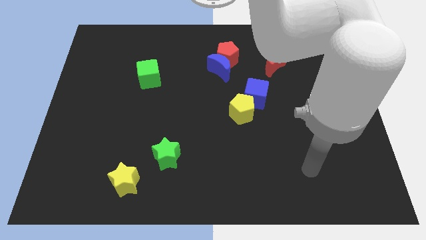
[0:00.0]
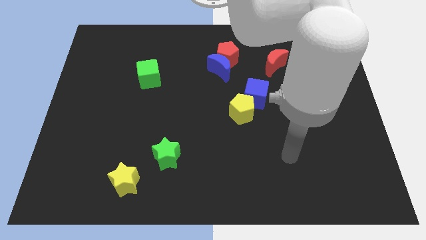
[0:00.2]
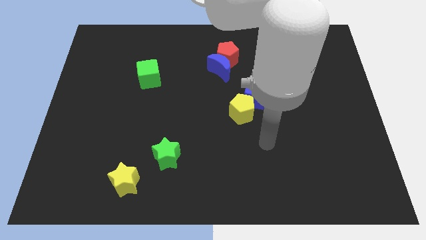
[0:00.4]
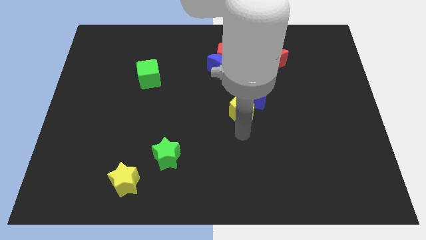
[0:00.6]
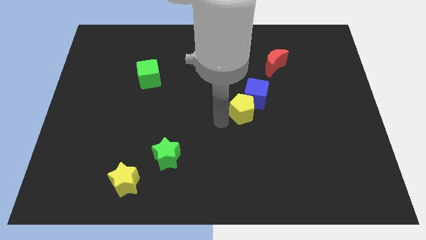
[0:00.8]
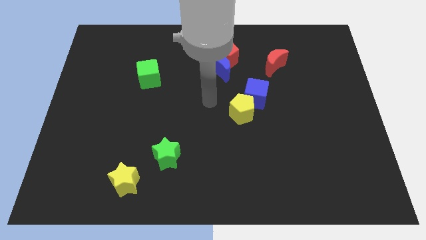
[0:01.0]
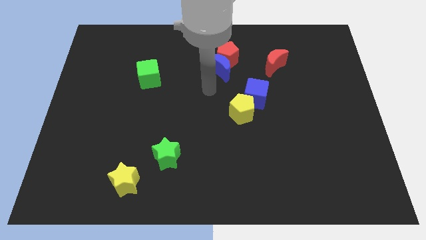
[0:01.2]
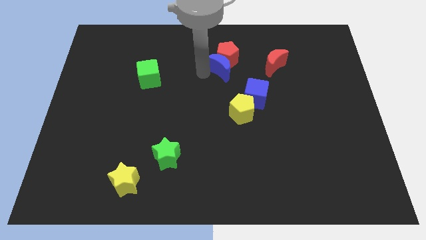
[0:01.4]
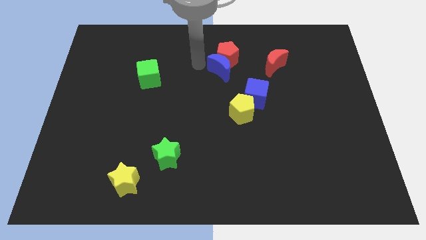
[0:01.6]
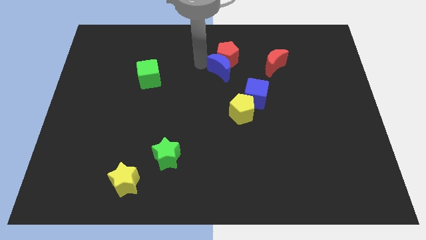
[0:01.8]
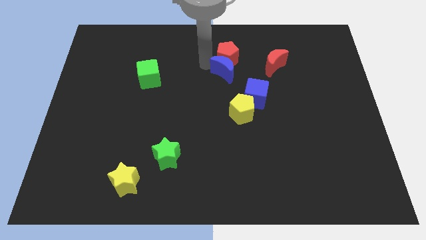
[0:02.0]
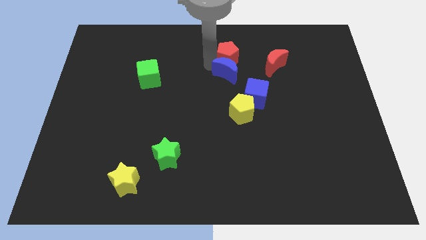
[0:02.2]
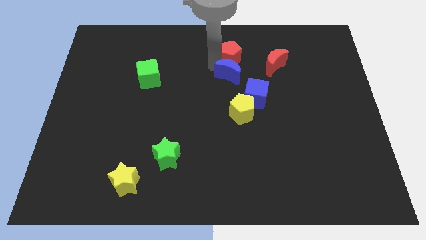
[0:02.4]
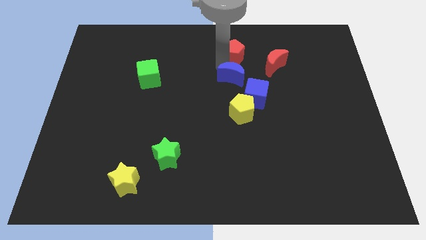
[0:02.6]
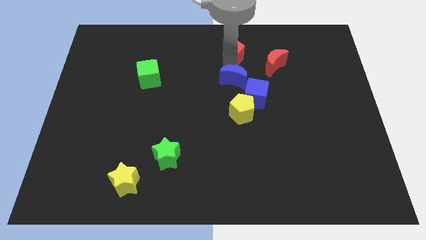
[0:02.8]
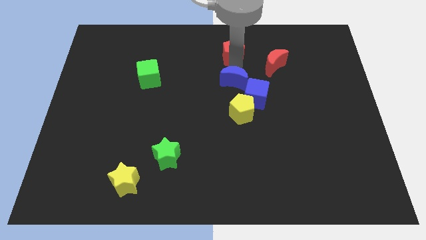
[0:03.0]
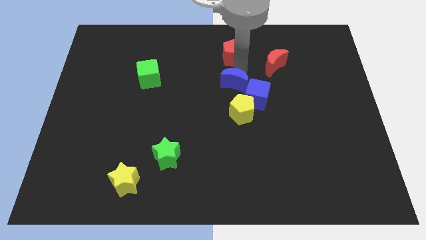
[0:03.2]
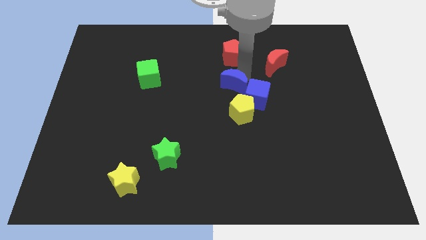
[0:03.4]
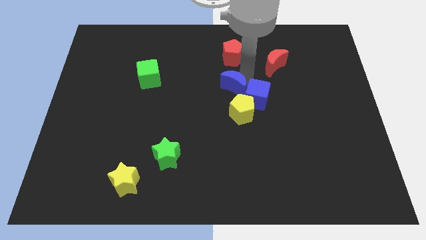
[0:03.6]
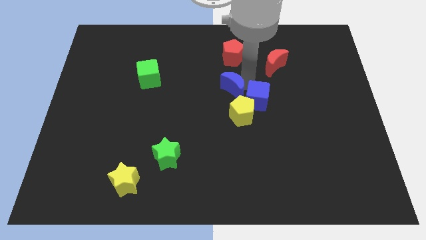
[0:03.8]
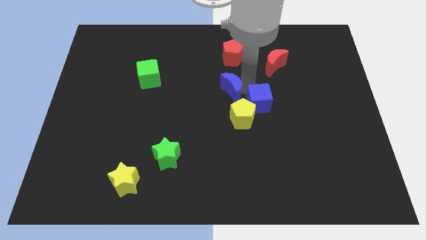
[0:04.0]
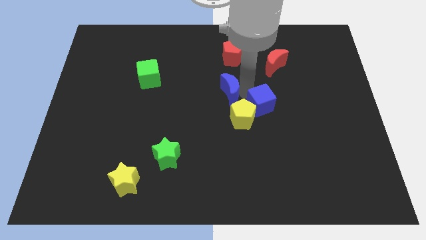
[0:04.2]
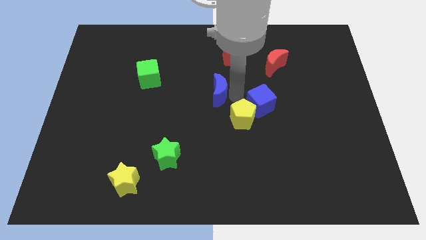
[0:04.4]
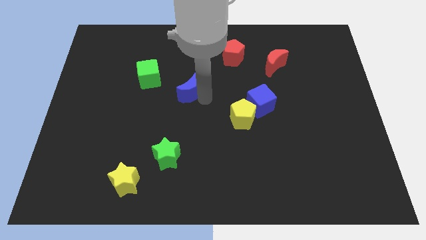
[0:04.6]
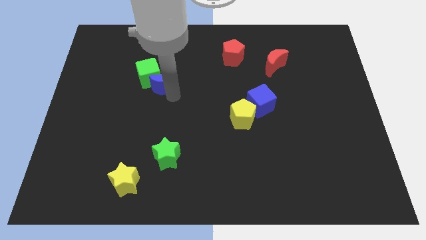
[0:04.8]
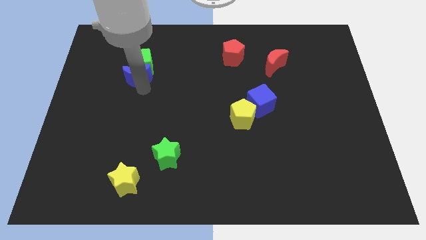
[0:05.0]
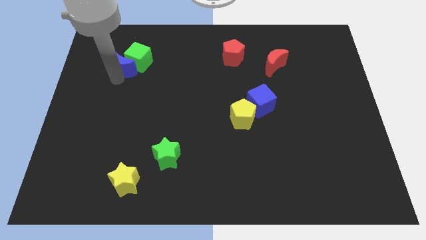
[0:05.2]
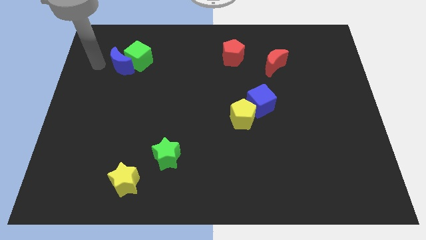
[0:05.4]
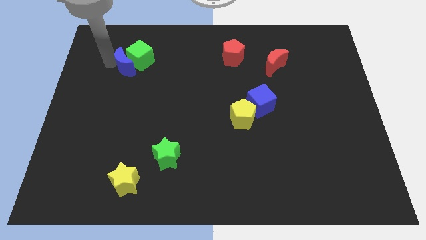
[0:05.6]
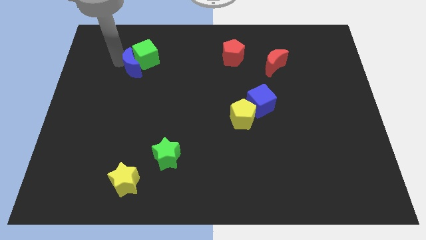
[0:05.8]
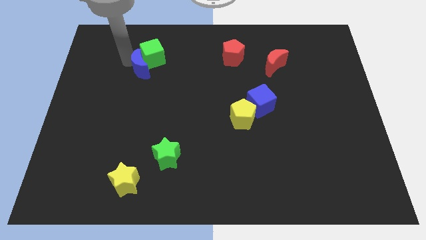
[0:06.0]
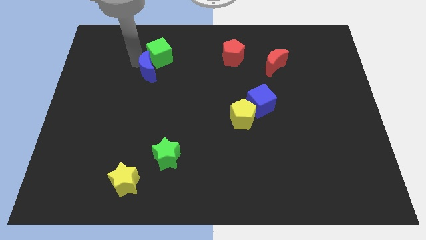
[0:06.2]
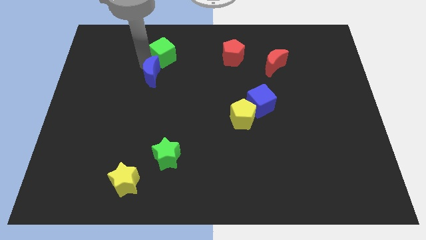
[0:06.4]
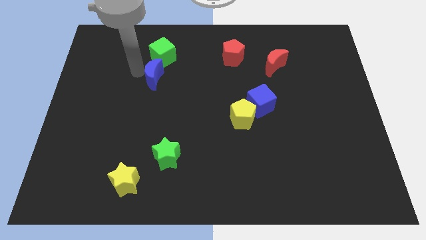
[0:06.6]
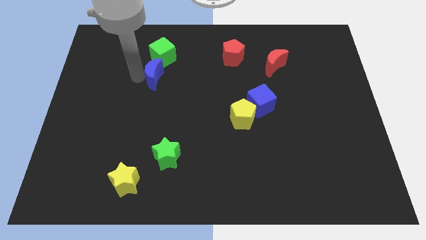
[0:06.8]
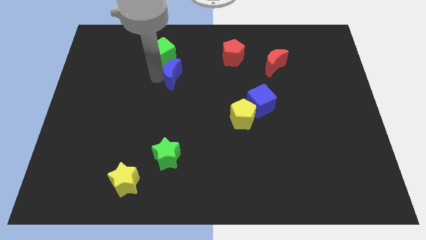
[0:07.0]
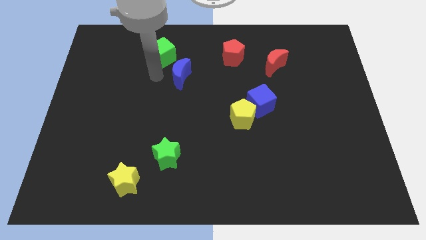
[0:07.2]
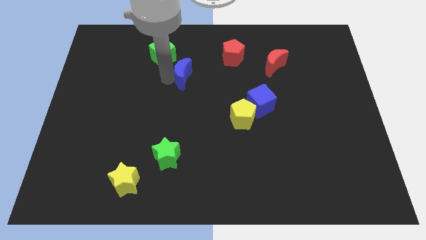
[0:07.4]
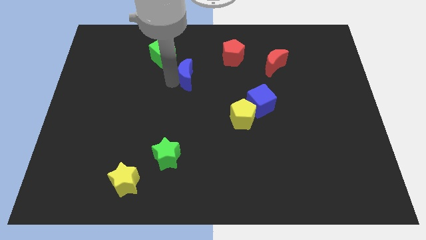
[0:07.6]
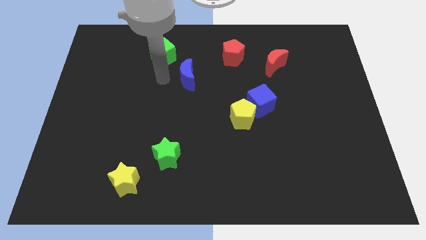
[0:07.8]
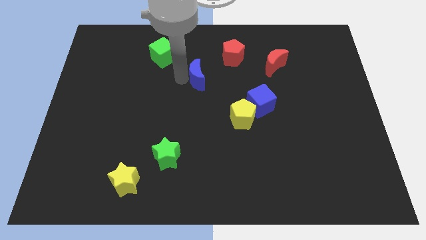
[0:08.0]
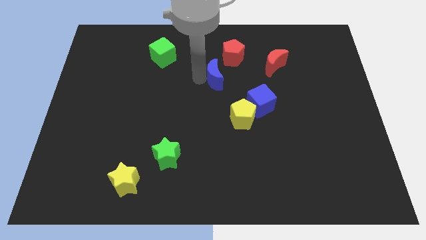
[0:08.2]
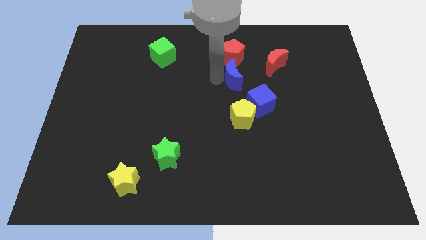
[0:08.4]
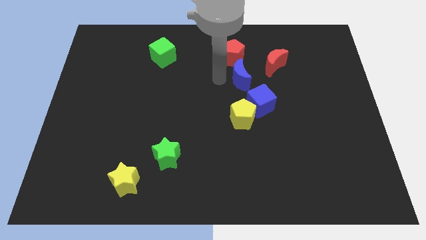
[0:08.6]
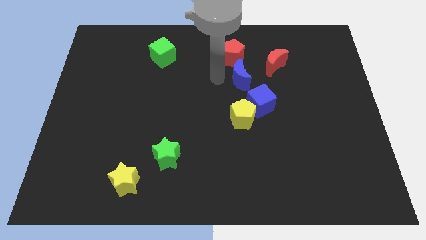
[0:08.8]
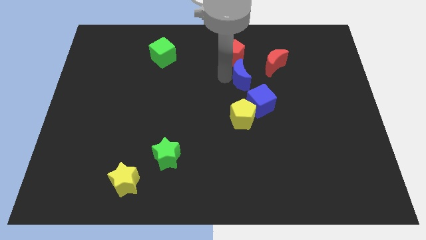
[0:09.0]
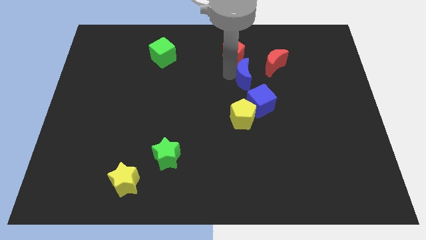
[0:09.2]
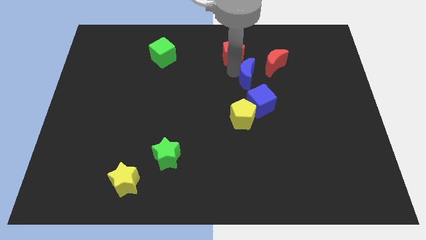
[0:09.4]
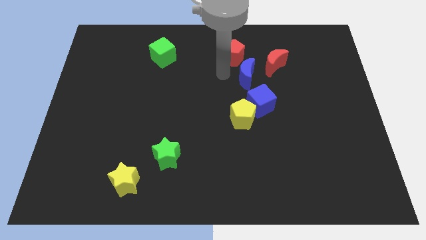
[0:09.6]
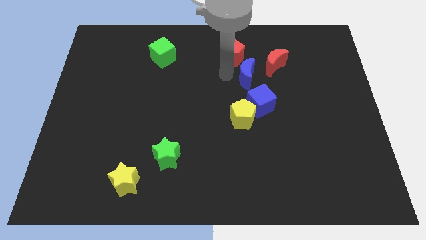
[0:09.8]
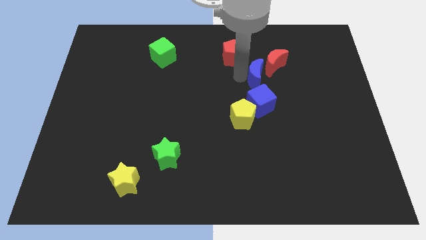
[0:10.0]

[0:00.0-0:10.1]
slightly push the blue moon to the right

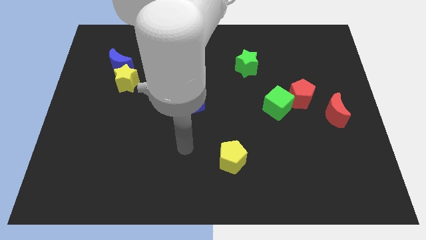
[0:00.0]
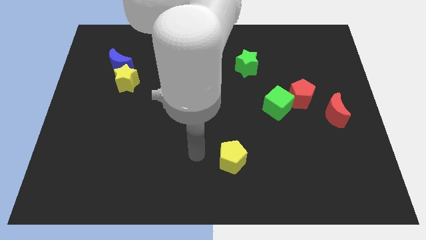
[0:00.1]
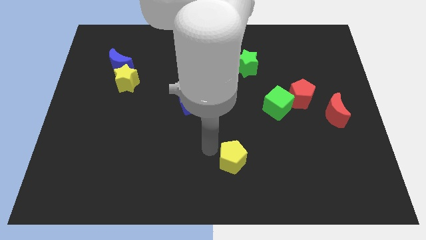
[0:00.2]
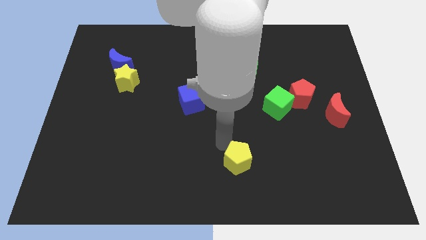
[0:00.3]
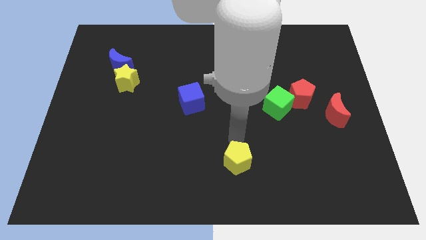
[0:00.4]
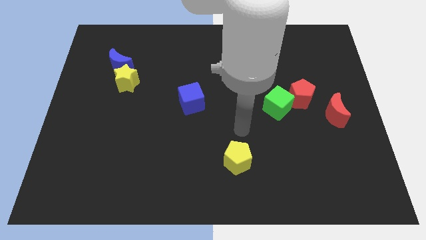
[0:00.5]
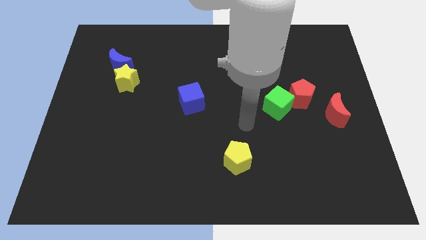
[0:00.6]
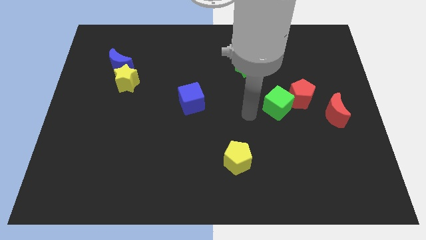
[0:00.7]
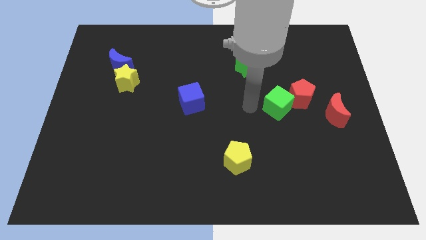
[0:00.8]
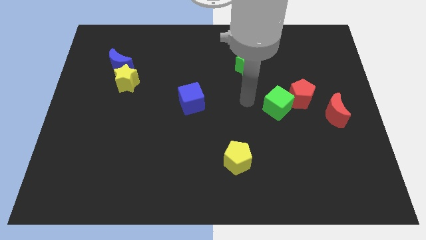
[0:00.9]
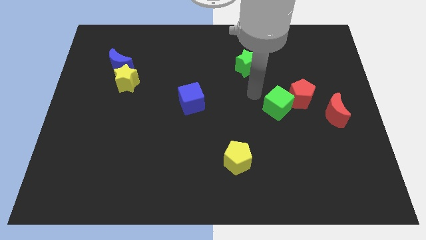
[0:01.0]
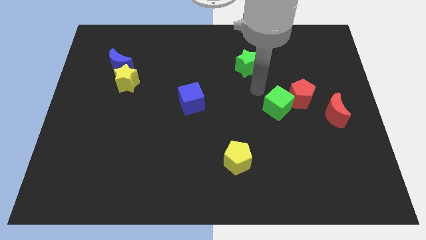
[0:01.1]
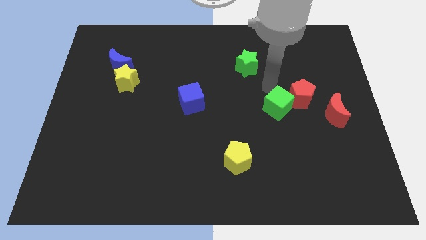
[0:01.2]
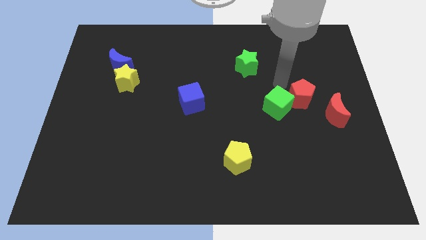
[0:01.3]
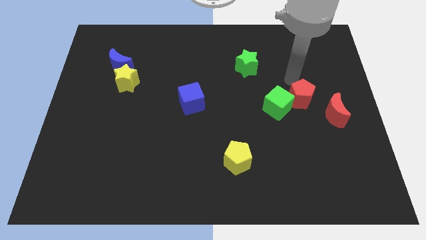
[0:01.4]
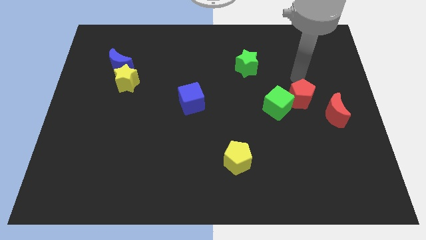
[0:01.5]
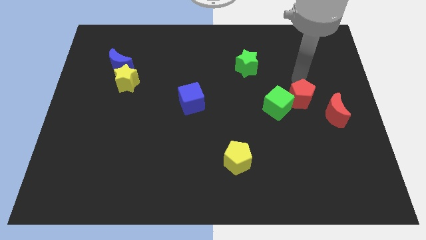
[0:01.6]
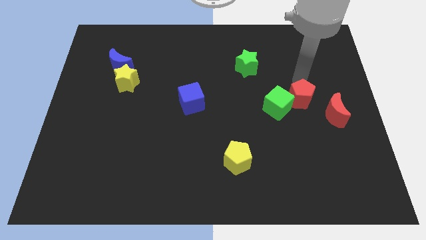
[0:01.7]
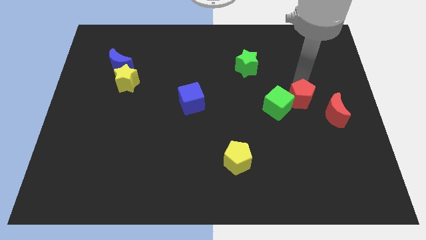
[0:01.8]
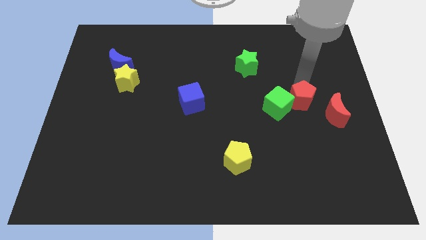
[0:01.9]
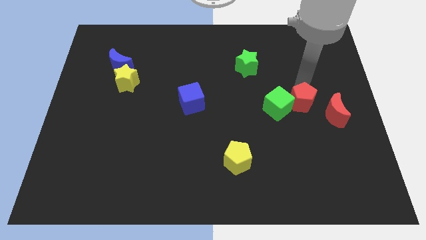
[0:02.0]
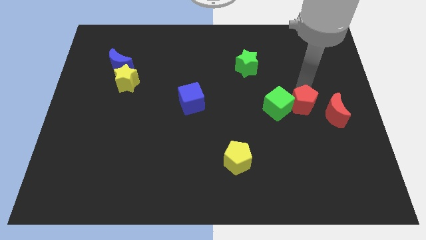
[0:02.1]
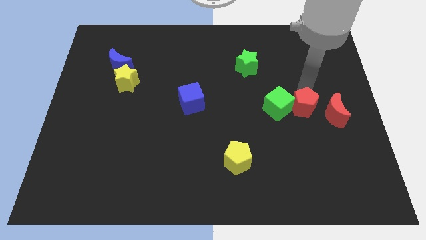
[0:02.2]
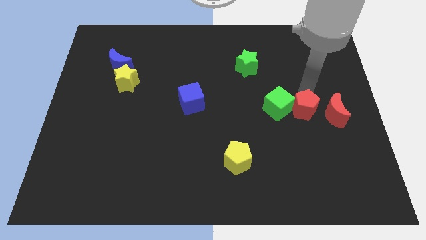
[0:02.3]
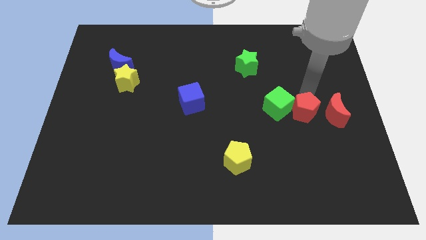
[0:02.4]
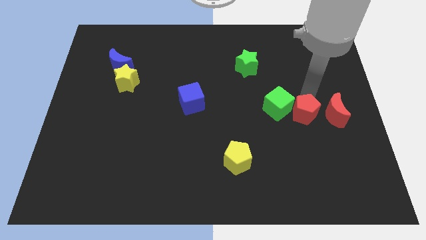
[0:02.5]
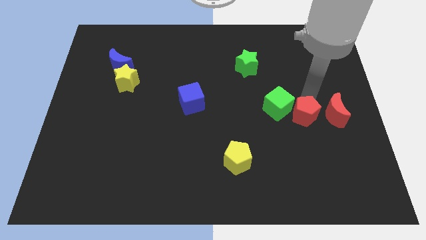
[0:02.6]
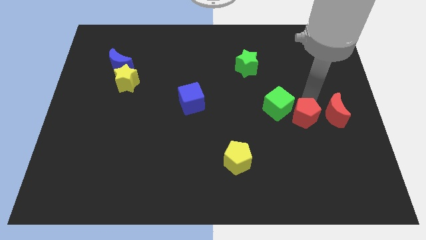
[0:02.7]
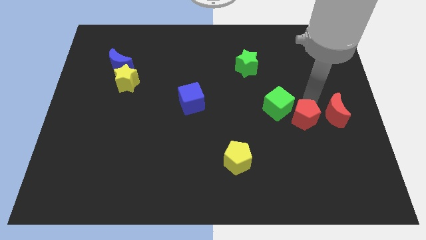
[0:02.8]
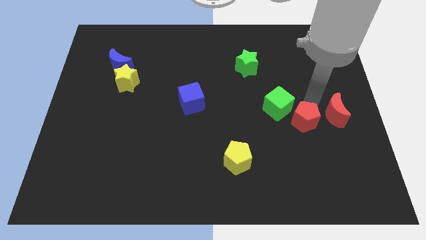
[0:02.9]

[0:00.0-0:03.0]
slide the red pentagon a bit down

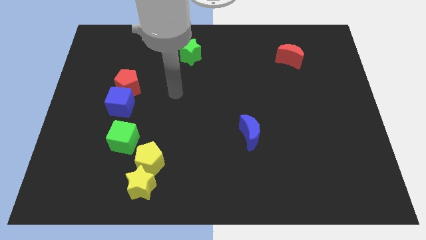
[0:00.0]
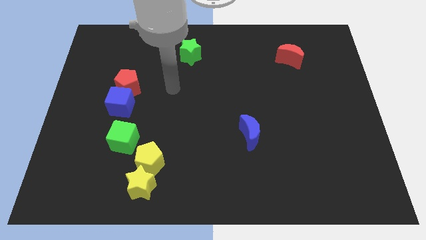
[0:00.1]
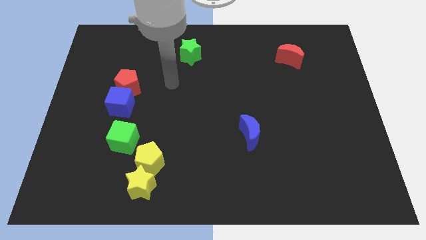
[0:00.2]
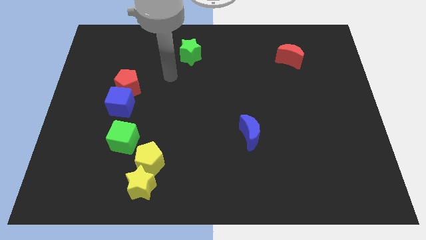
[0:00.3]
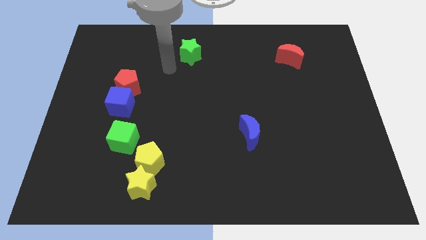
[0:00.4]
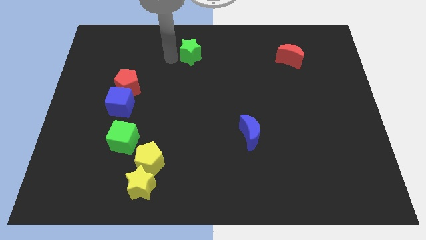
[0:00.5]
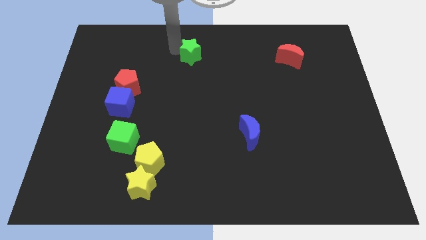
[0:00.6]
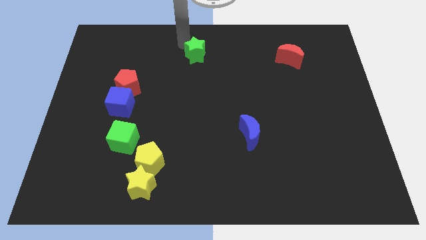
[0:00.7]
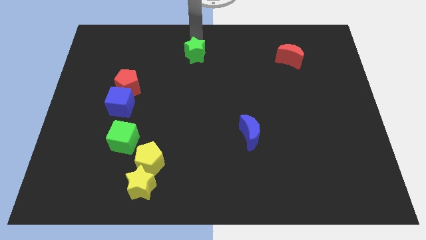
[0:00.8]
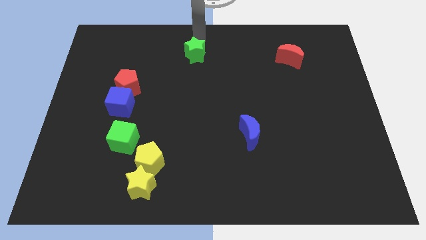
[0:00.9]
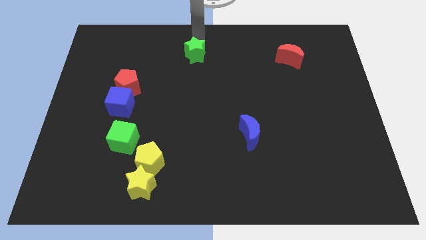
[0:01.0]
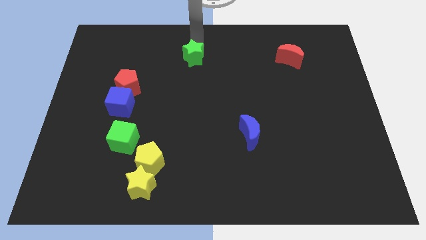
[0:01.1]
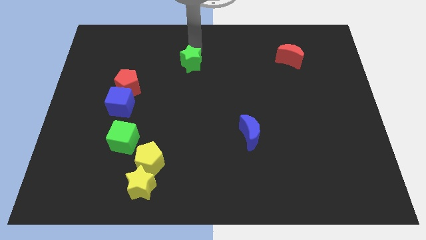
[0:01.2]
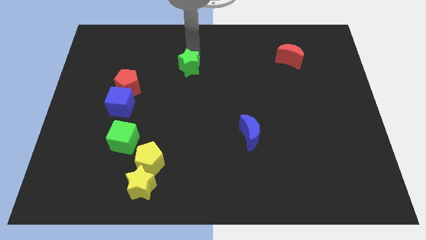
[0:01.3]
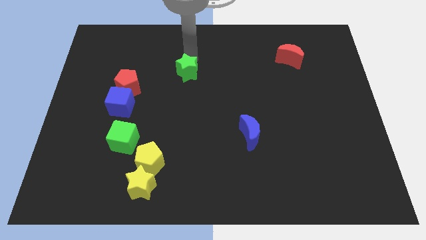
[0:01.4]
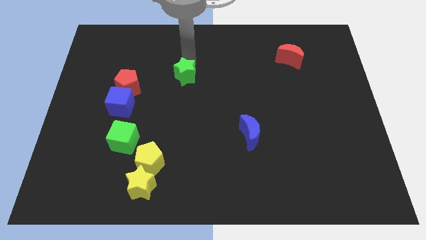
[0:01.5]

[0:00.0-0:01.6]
slightly move the green star down
